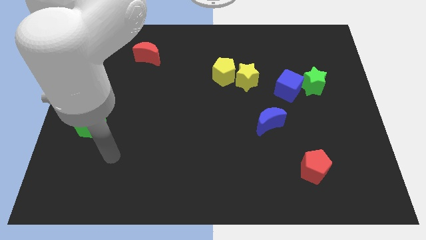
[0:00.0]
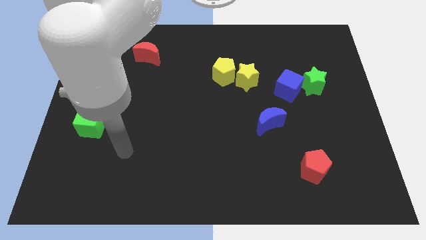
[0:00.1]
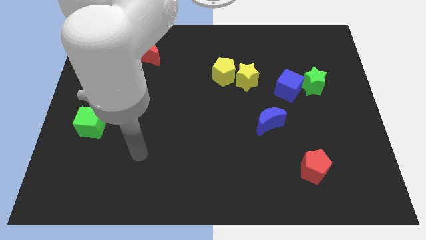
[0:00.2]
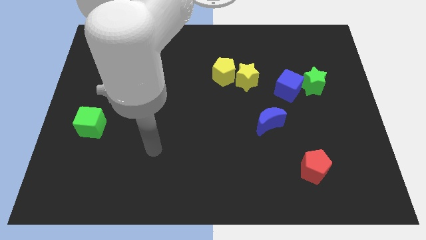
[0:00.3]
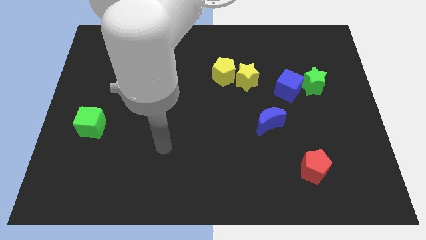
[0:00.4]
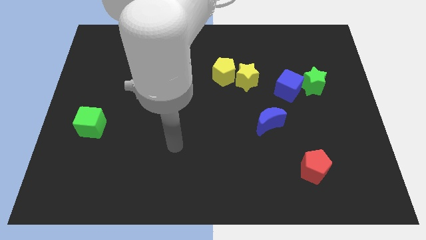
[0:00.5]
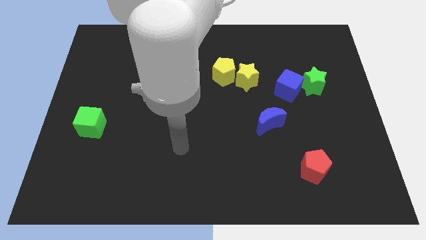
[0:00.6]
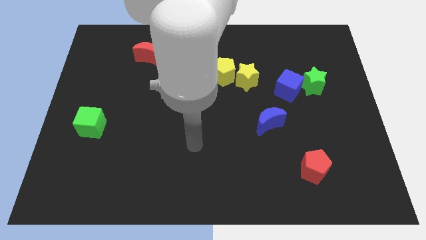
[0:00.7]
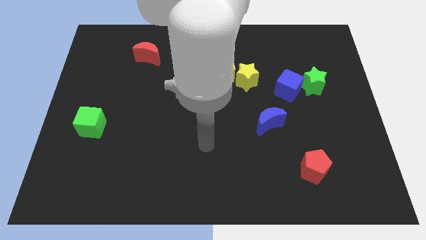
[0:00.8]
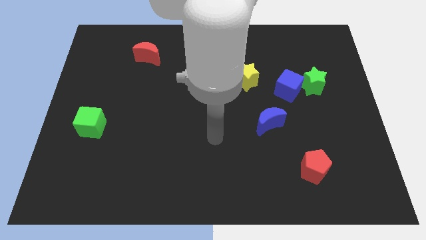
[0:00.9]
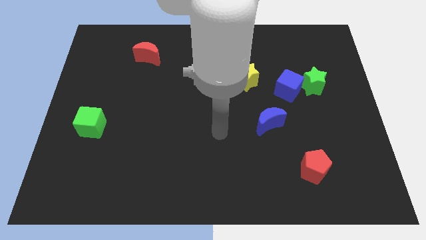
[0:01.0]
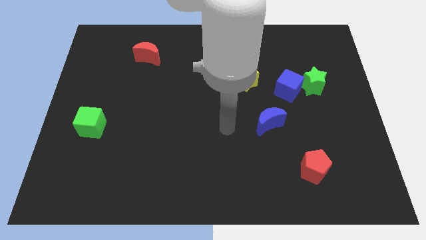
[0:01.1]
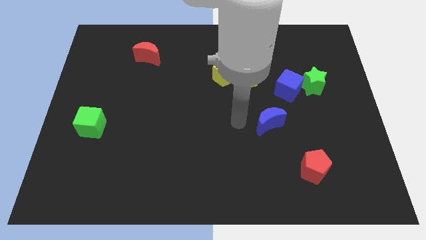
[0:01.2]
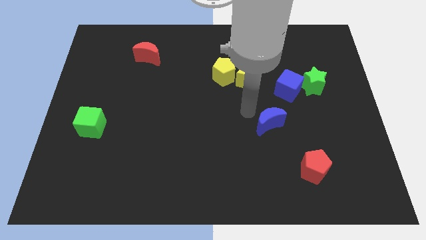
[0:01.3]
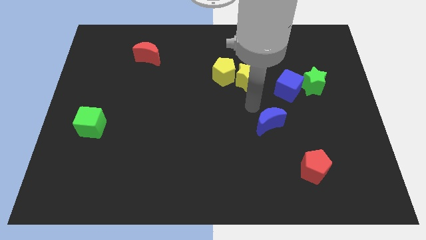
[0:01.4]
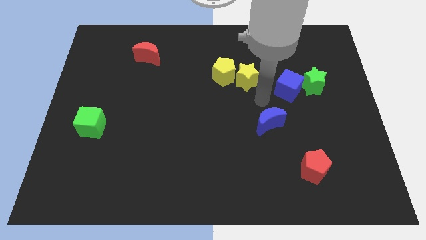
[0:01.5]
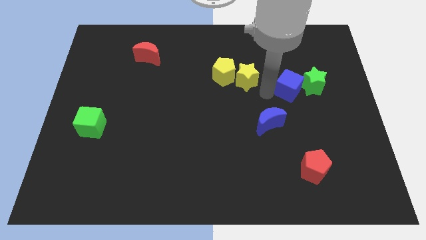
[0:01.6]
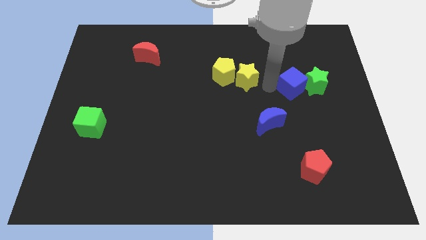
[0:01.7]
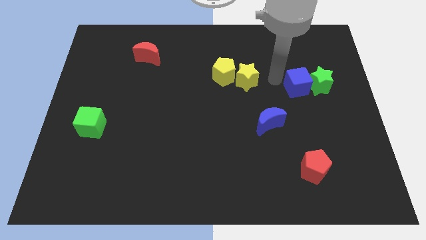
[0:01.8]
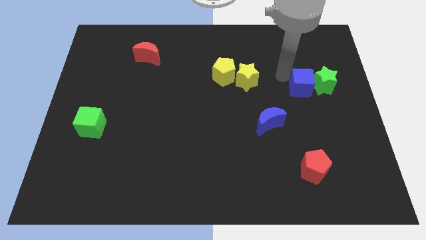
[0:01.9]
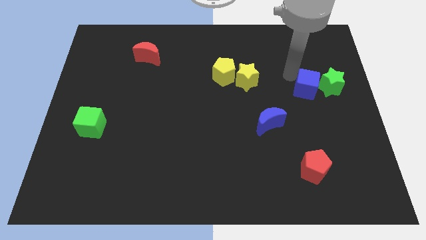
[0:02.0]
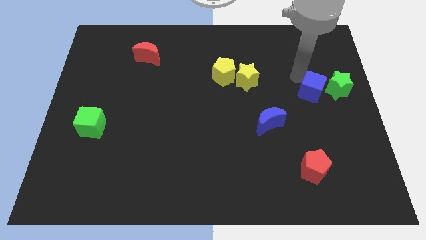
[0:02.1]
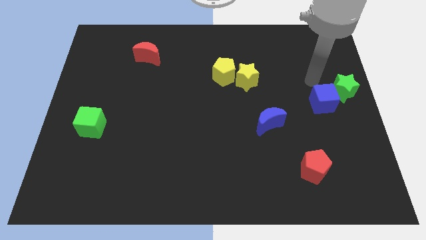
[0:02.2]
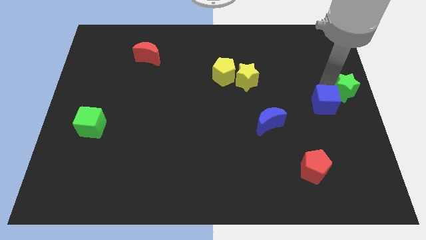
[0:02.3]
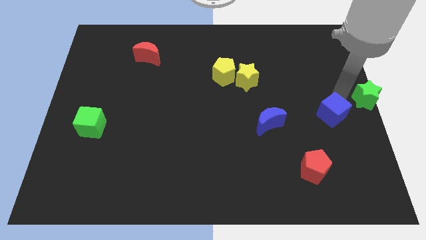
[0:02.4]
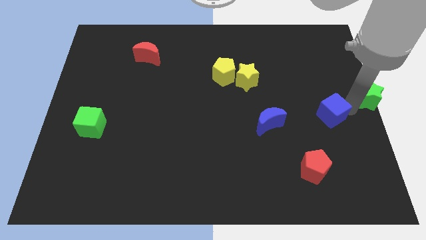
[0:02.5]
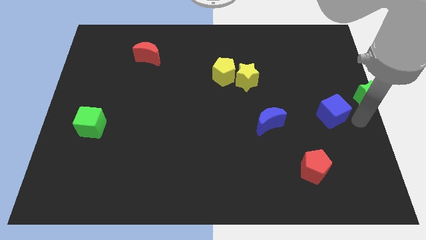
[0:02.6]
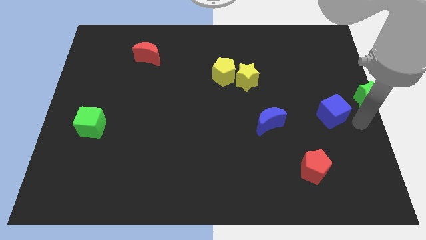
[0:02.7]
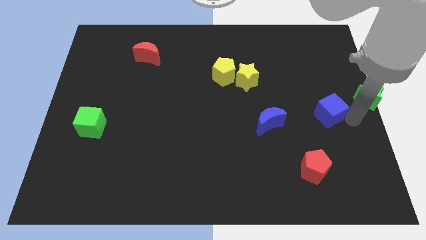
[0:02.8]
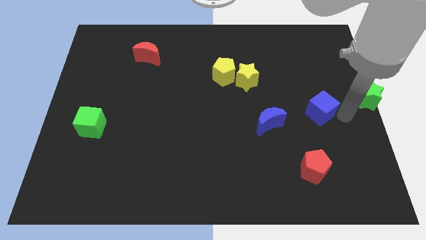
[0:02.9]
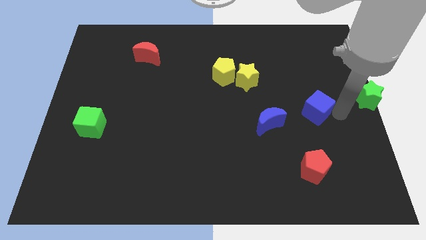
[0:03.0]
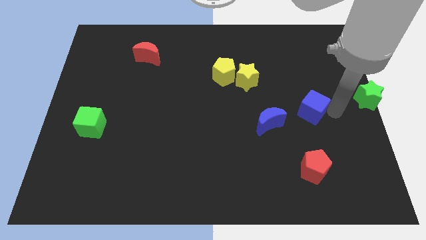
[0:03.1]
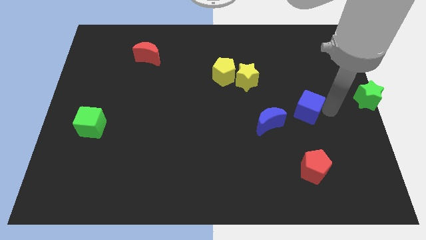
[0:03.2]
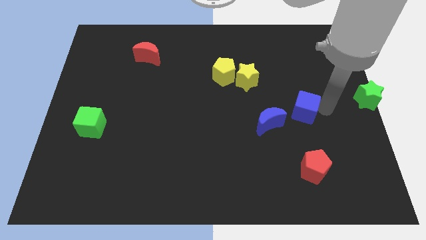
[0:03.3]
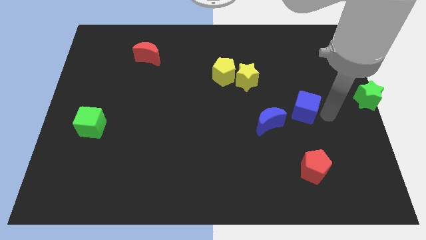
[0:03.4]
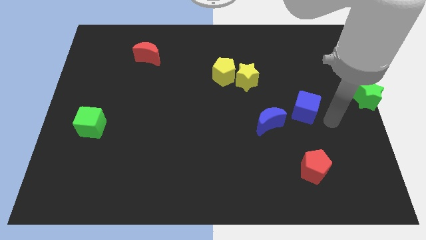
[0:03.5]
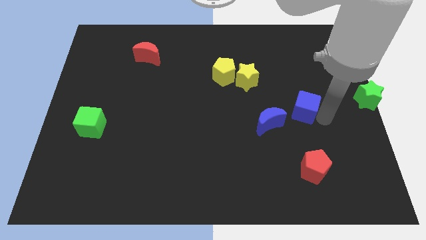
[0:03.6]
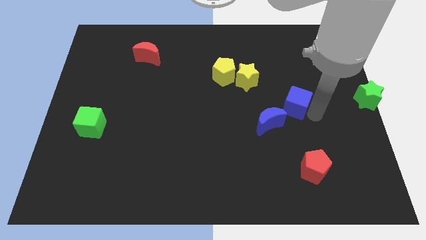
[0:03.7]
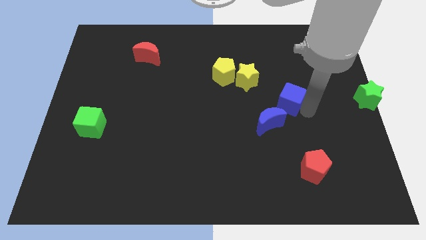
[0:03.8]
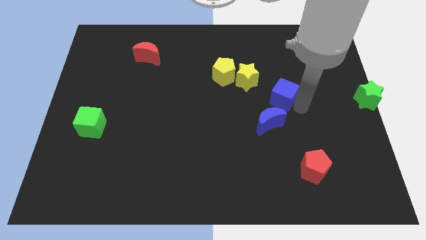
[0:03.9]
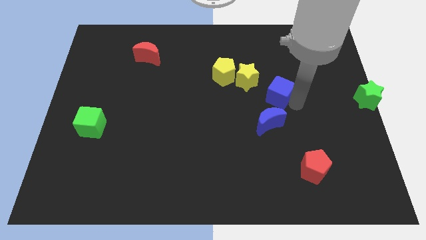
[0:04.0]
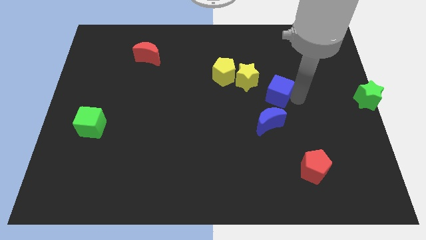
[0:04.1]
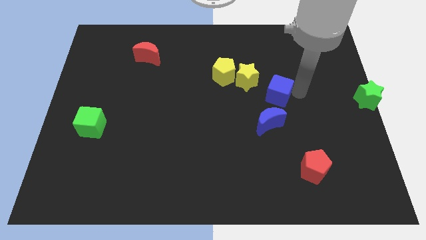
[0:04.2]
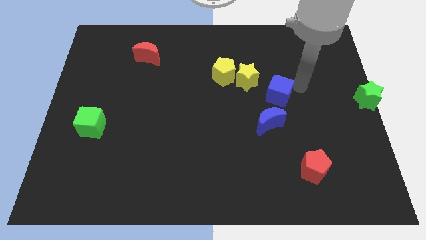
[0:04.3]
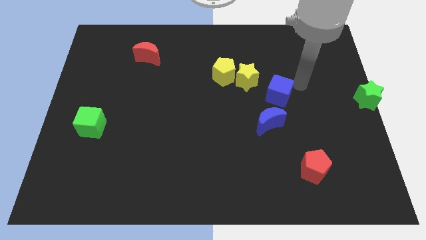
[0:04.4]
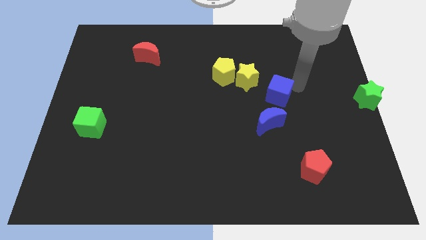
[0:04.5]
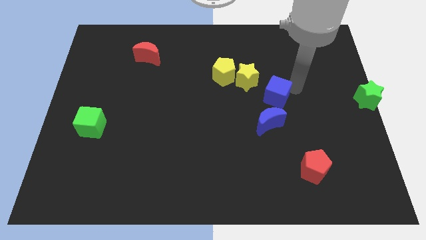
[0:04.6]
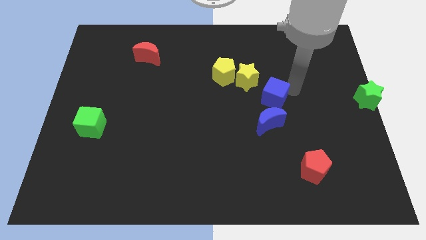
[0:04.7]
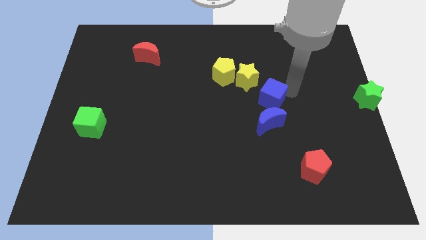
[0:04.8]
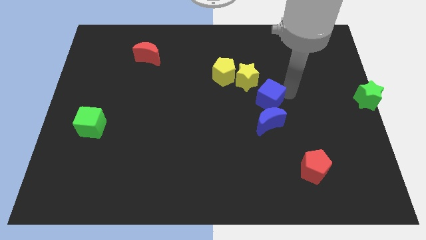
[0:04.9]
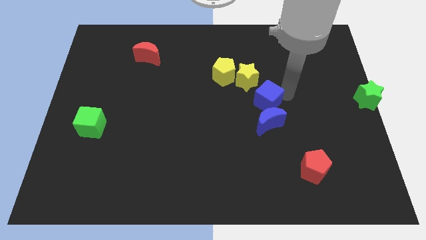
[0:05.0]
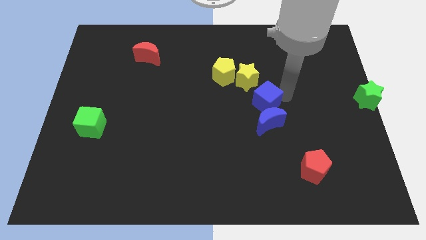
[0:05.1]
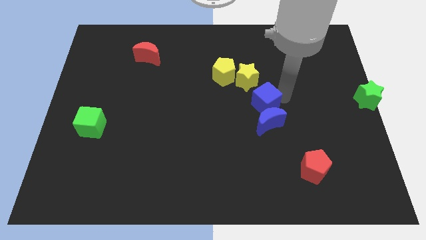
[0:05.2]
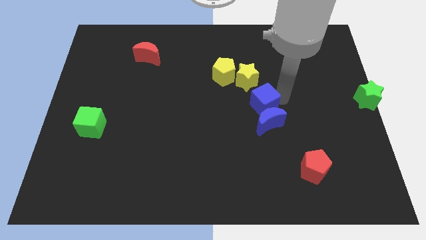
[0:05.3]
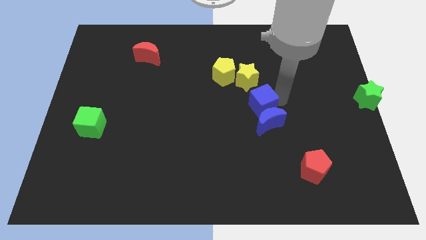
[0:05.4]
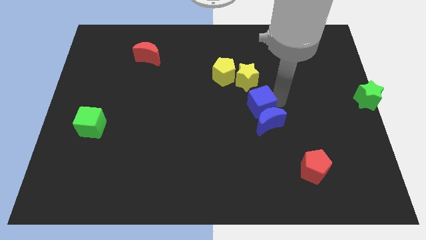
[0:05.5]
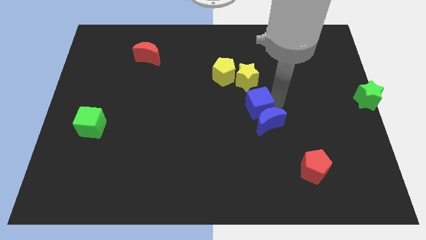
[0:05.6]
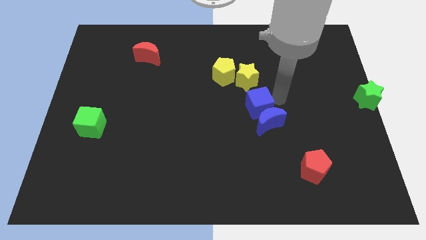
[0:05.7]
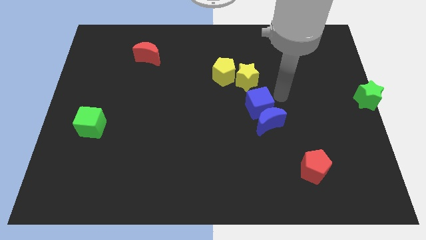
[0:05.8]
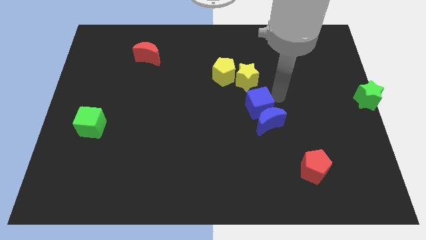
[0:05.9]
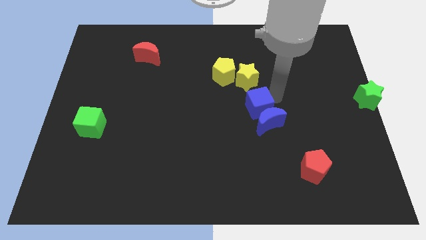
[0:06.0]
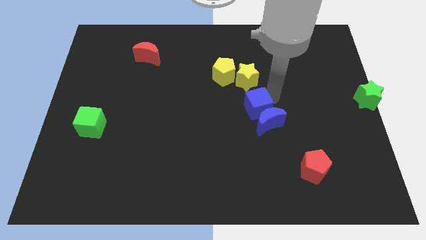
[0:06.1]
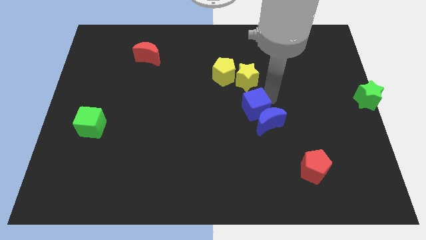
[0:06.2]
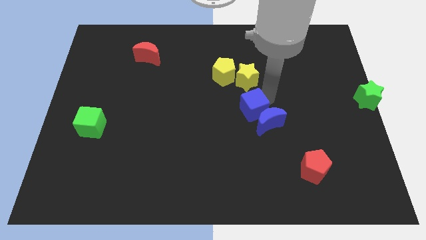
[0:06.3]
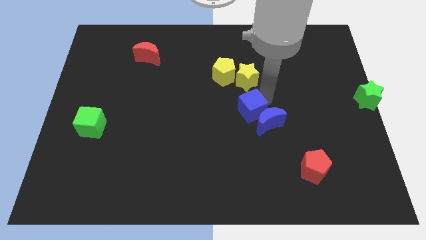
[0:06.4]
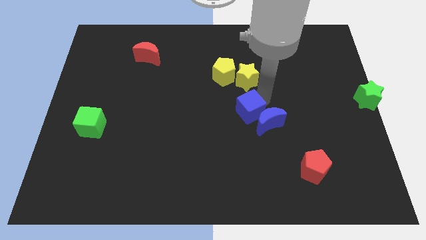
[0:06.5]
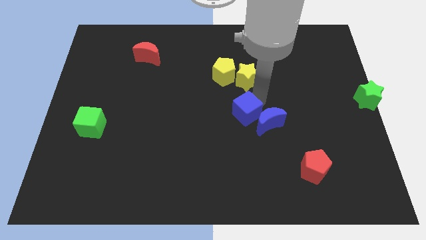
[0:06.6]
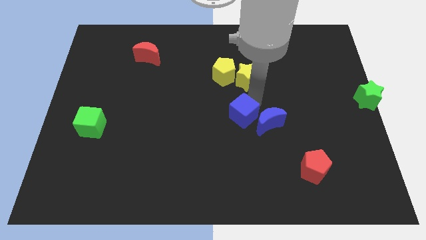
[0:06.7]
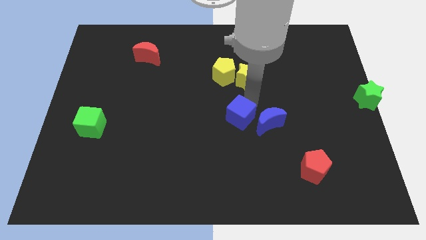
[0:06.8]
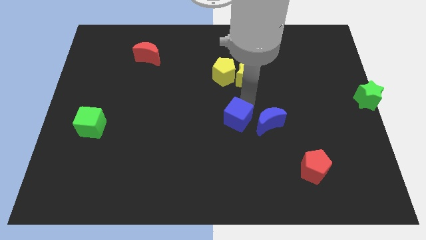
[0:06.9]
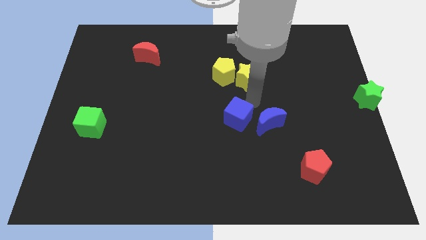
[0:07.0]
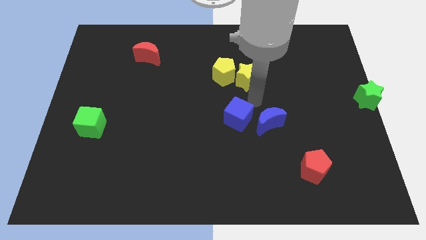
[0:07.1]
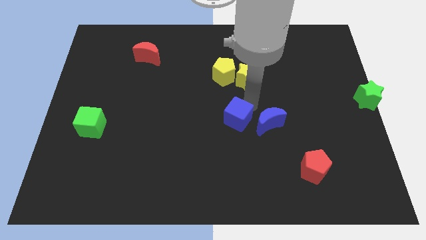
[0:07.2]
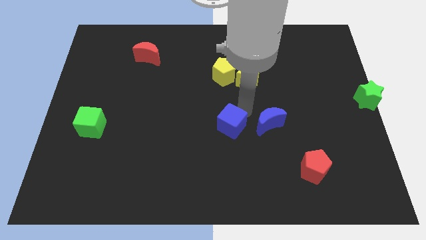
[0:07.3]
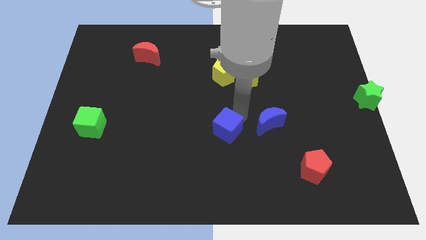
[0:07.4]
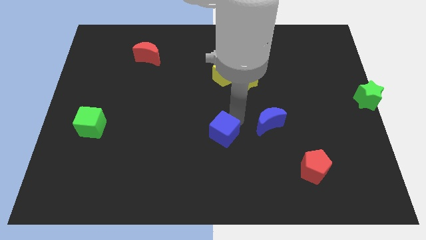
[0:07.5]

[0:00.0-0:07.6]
move the blue cube diagonally downwards and to the left

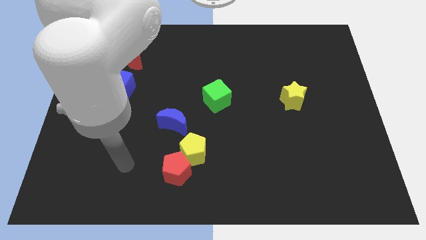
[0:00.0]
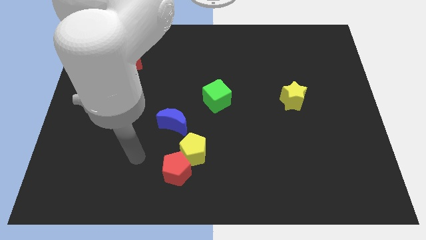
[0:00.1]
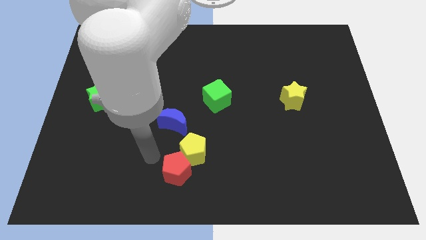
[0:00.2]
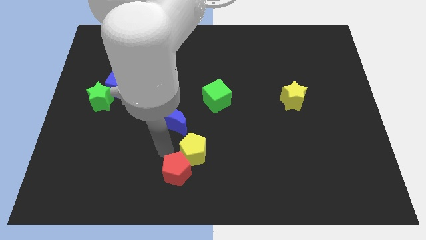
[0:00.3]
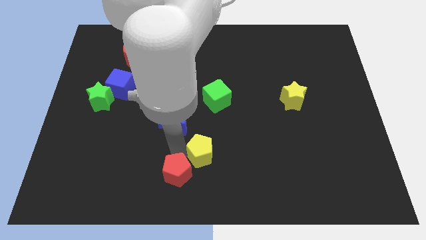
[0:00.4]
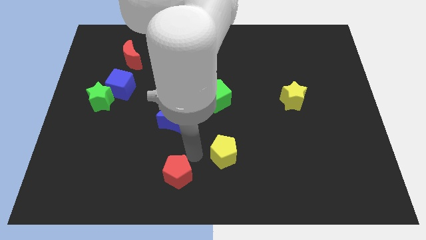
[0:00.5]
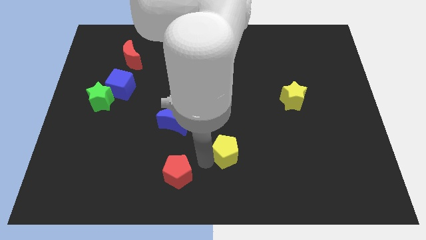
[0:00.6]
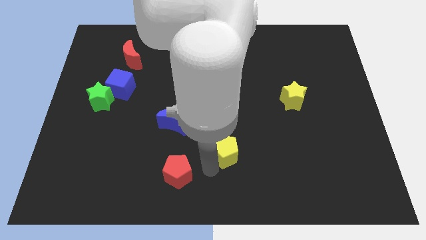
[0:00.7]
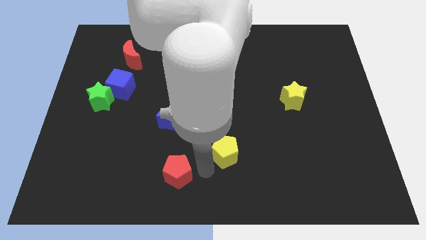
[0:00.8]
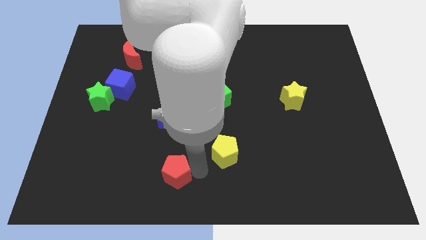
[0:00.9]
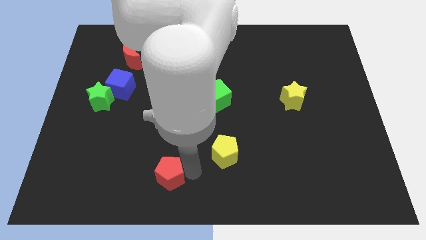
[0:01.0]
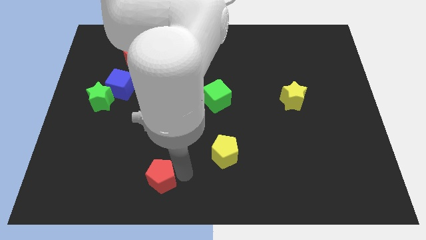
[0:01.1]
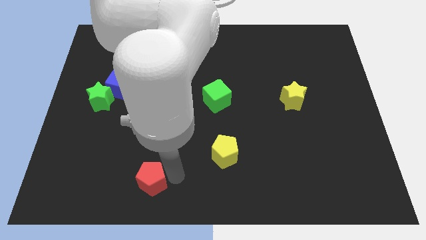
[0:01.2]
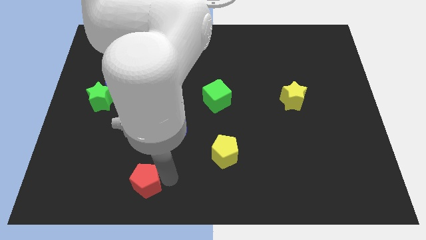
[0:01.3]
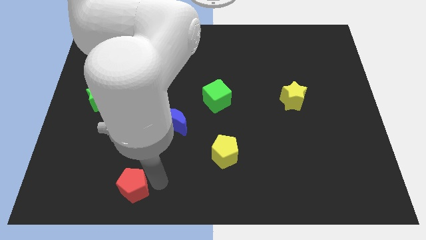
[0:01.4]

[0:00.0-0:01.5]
slide the red pentagon somewhat to the left
